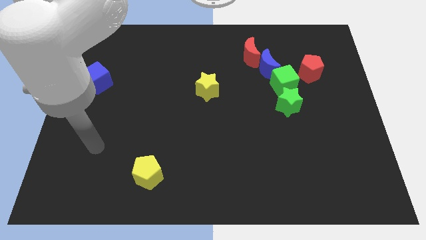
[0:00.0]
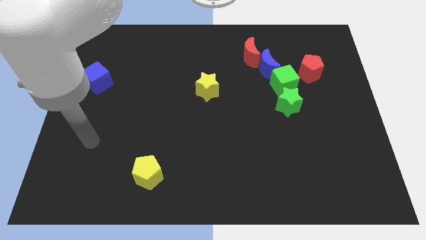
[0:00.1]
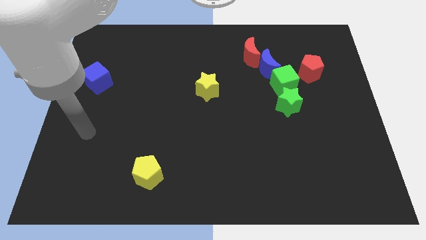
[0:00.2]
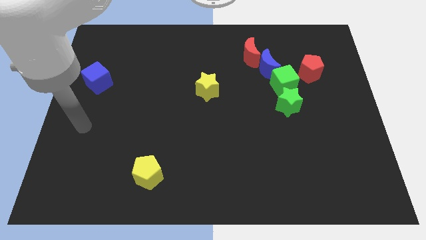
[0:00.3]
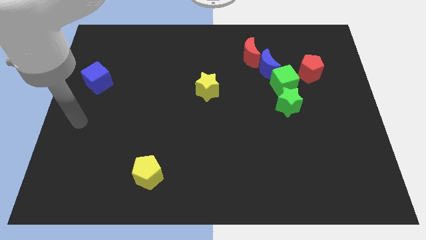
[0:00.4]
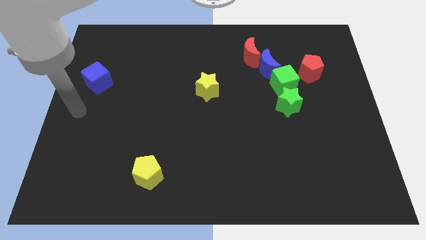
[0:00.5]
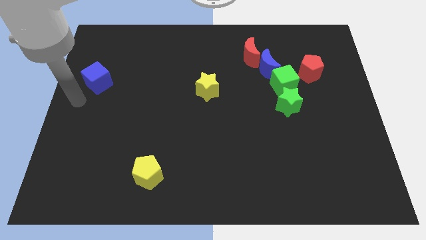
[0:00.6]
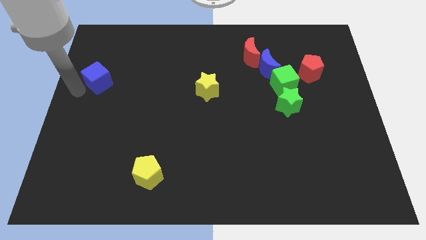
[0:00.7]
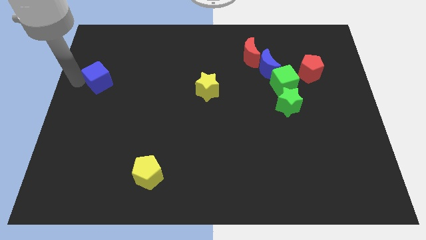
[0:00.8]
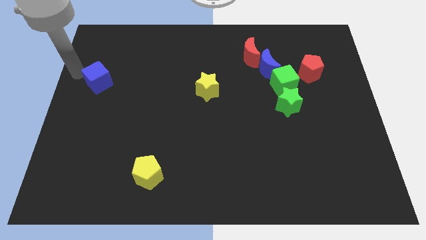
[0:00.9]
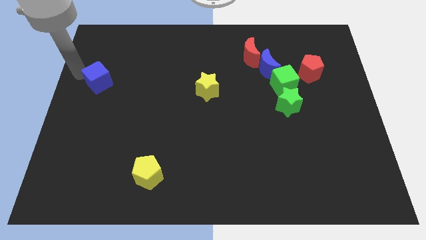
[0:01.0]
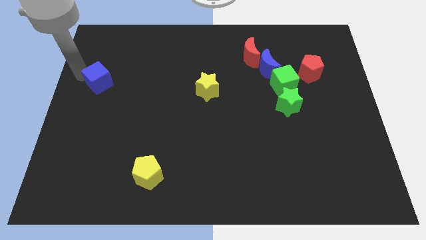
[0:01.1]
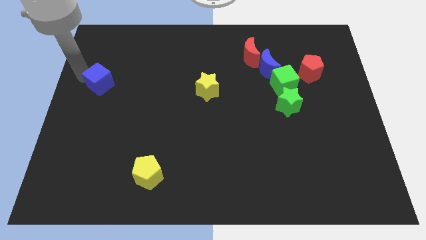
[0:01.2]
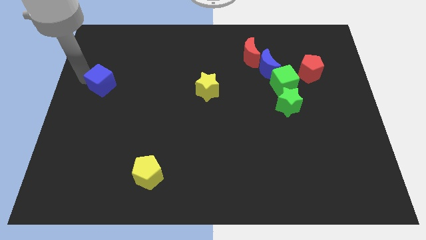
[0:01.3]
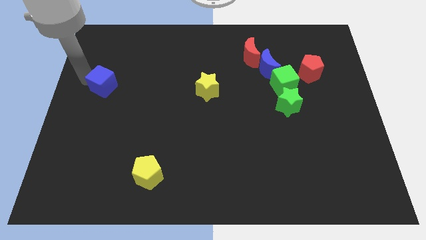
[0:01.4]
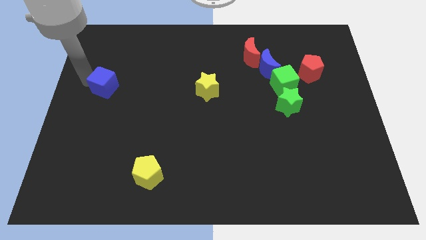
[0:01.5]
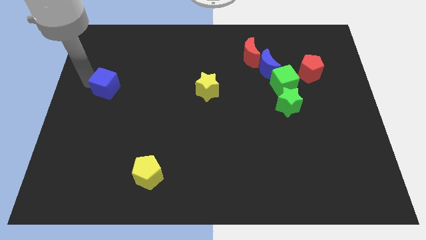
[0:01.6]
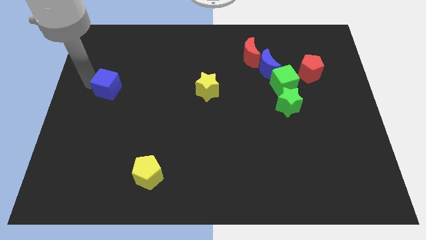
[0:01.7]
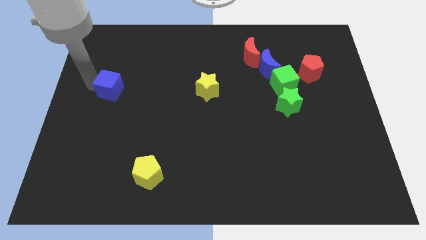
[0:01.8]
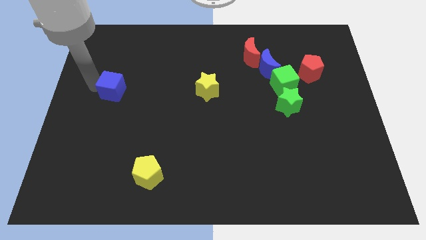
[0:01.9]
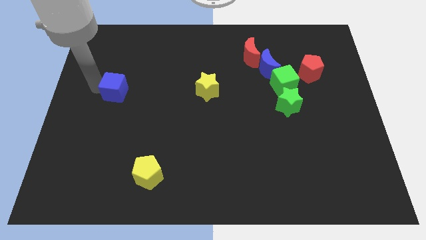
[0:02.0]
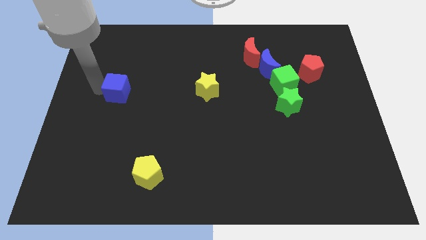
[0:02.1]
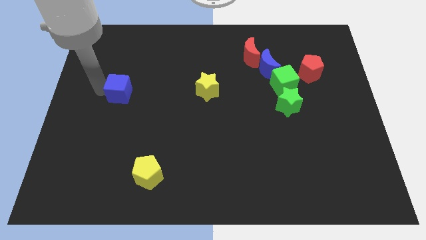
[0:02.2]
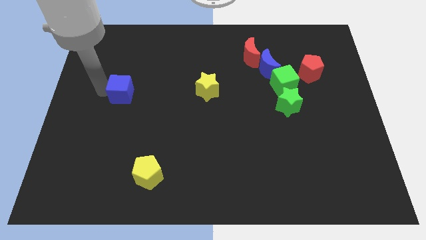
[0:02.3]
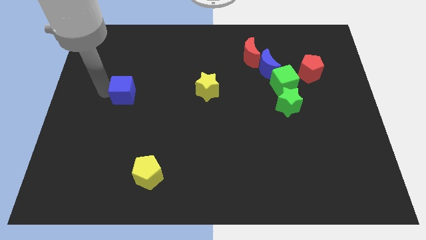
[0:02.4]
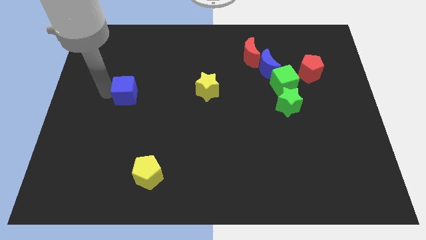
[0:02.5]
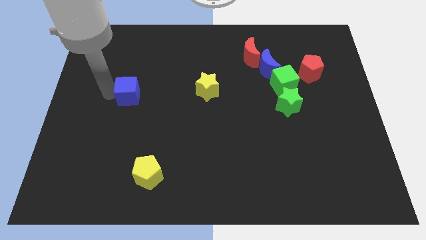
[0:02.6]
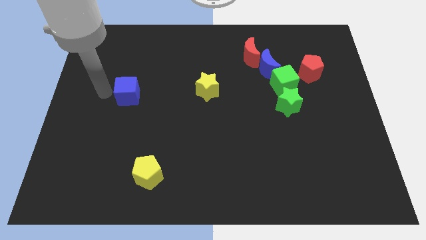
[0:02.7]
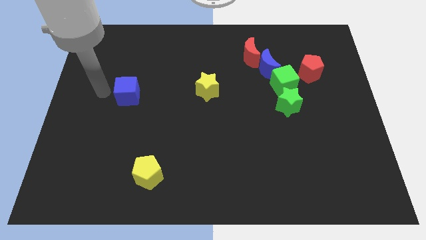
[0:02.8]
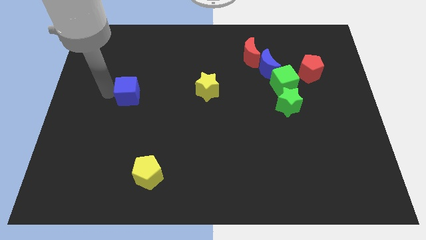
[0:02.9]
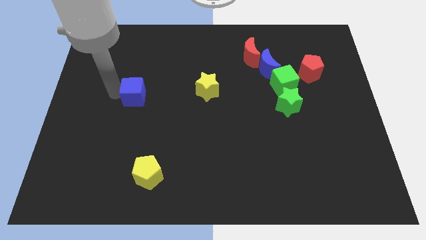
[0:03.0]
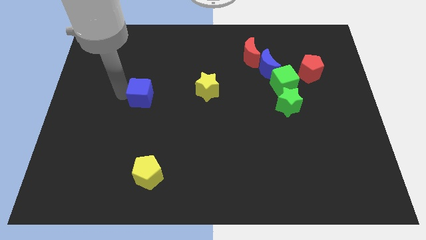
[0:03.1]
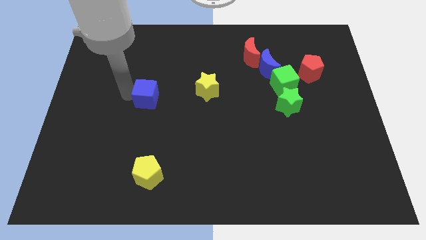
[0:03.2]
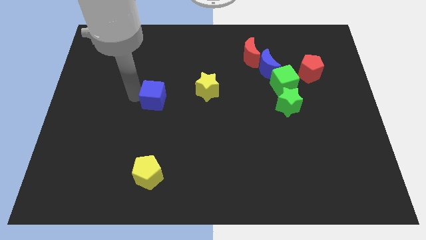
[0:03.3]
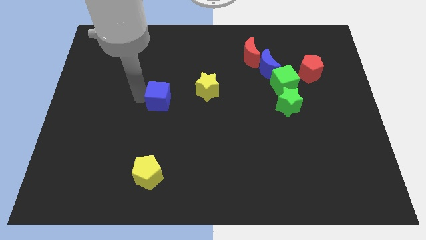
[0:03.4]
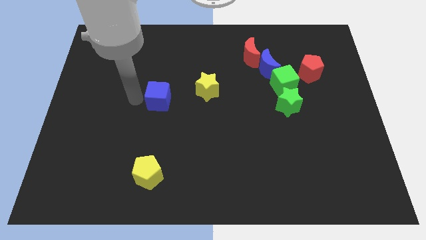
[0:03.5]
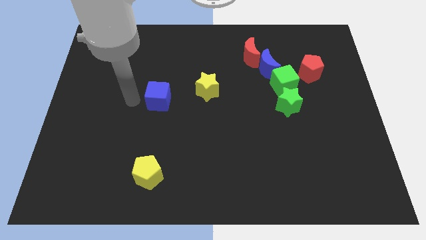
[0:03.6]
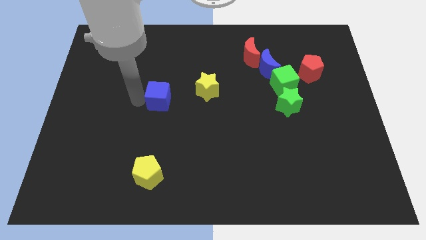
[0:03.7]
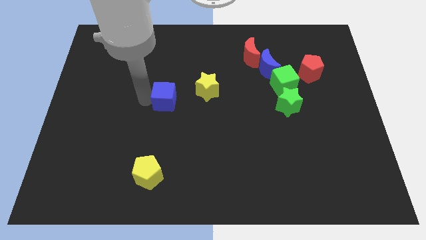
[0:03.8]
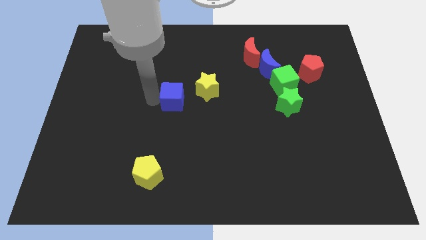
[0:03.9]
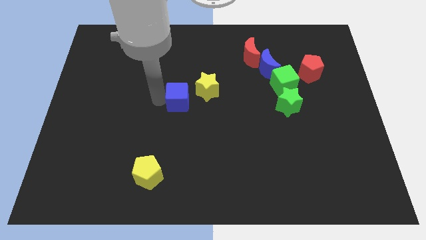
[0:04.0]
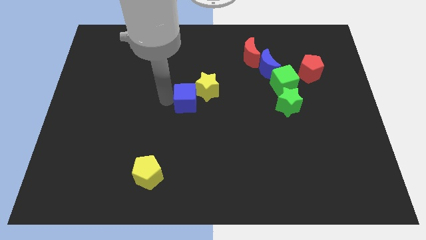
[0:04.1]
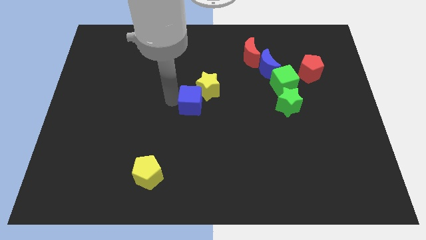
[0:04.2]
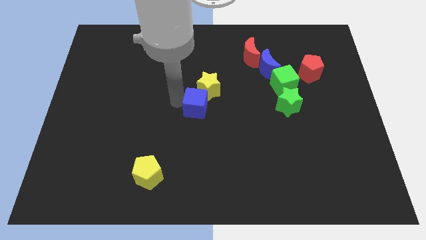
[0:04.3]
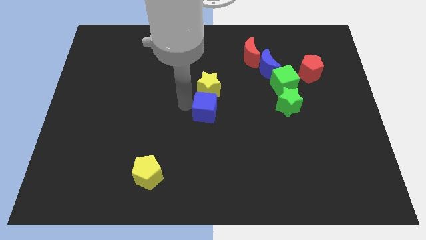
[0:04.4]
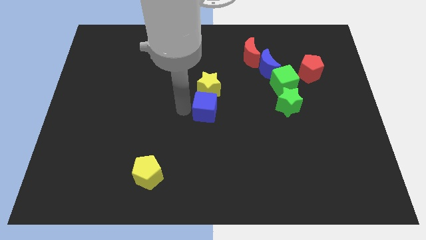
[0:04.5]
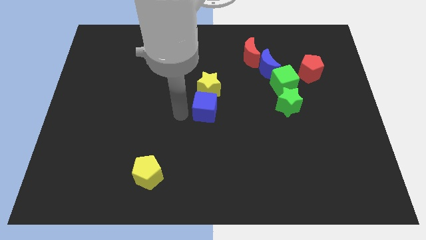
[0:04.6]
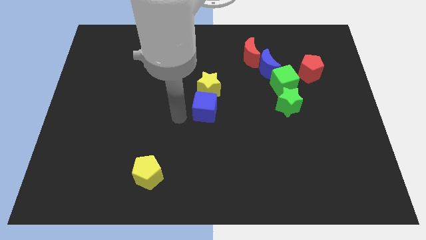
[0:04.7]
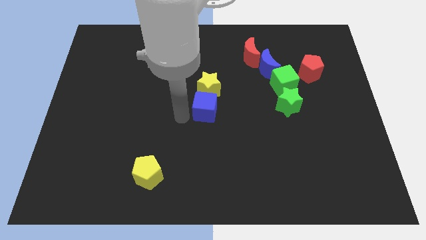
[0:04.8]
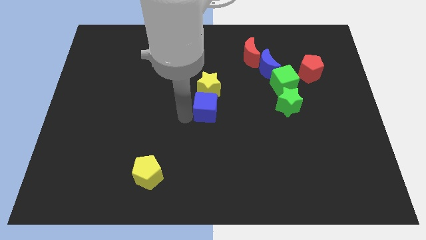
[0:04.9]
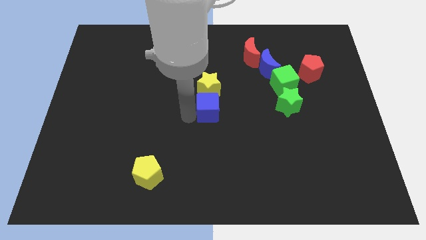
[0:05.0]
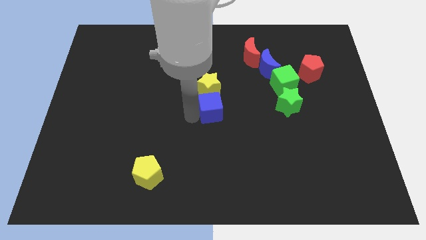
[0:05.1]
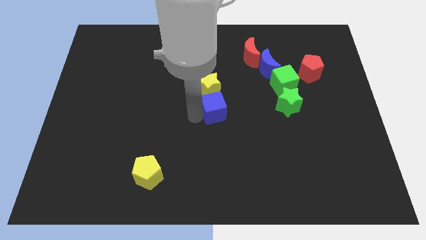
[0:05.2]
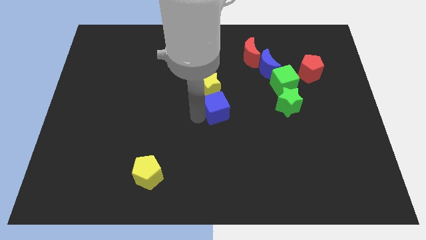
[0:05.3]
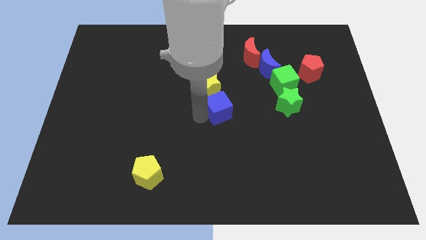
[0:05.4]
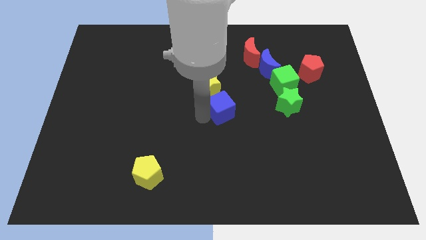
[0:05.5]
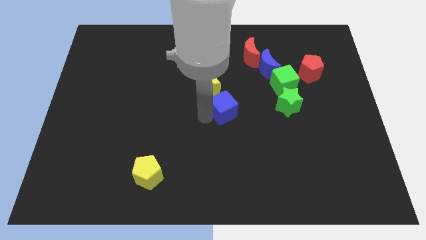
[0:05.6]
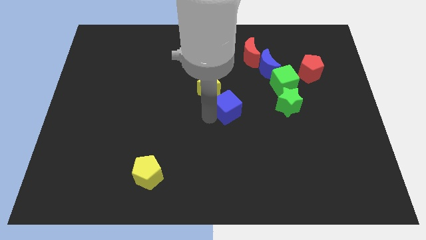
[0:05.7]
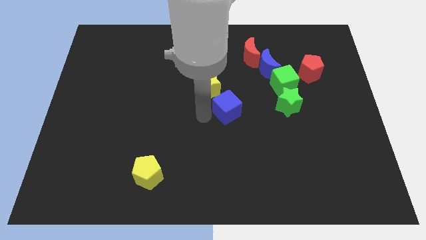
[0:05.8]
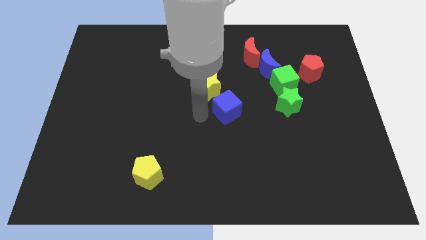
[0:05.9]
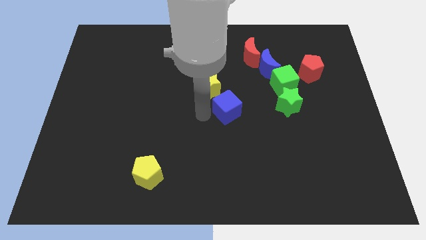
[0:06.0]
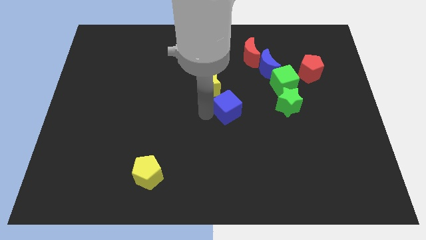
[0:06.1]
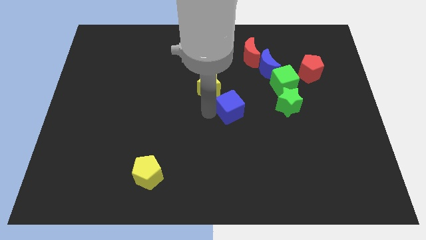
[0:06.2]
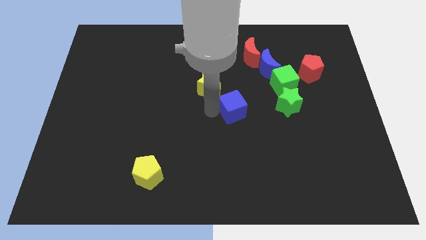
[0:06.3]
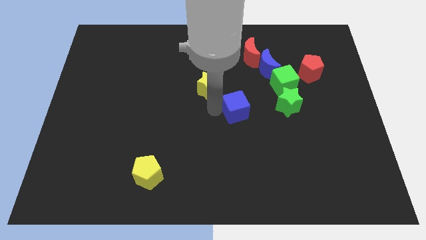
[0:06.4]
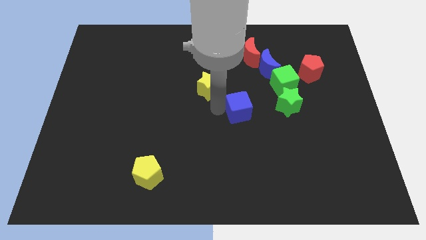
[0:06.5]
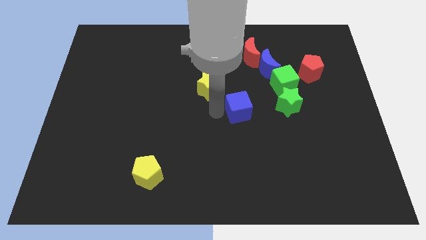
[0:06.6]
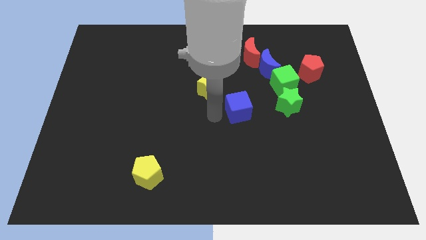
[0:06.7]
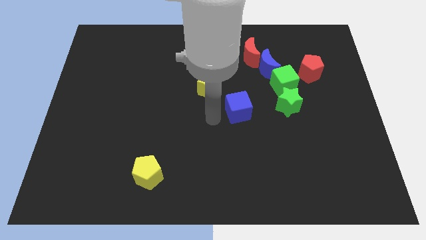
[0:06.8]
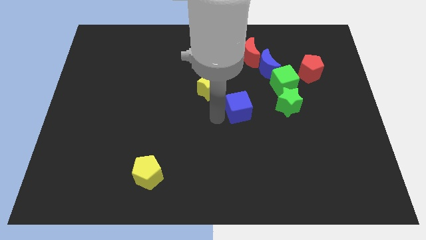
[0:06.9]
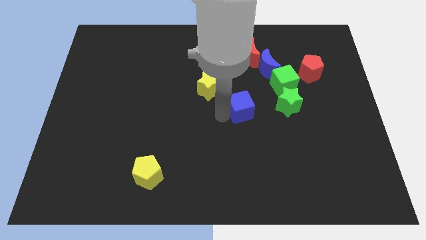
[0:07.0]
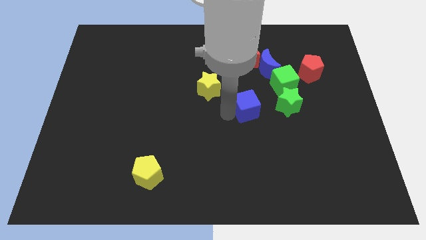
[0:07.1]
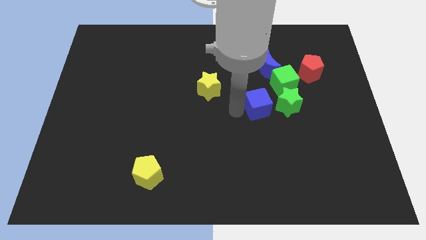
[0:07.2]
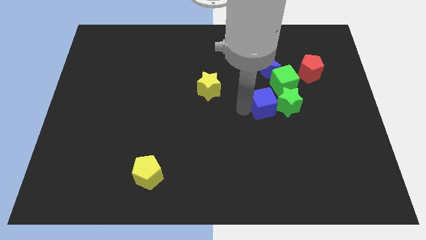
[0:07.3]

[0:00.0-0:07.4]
push the blue cube next to the green star
